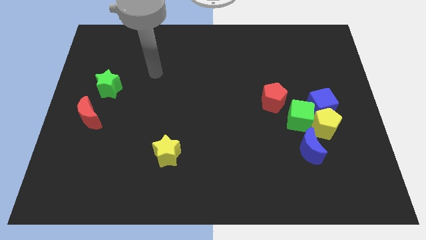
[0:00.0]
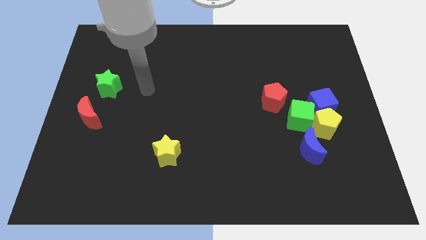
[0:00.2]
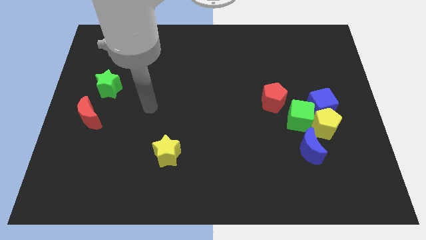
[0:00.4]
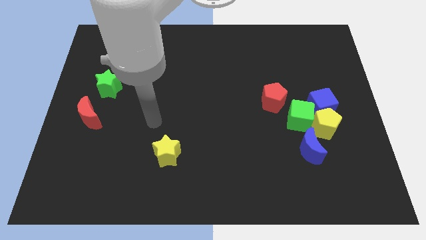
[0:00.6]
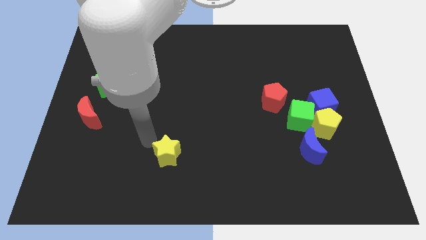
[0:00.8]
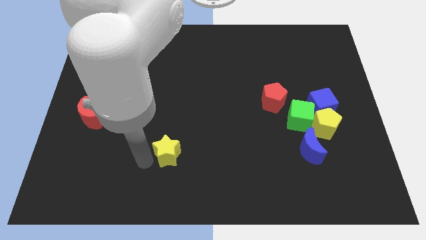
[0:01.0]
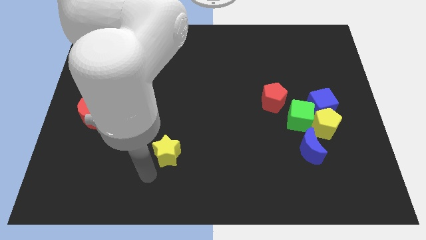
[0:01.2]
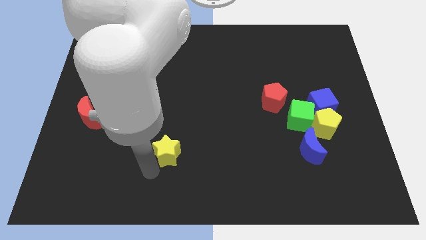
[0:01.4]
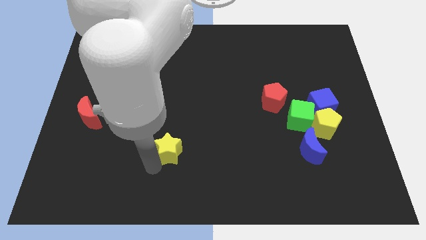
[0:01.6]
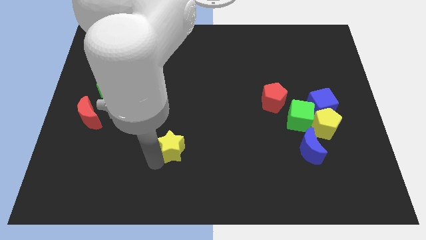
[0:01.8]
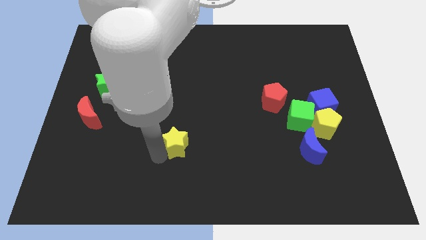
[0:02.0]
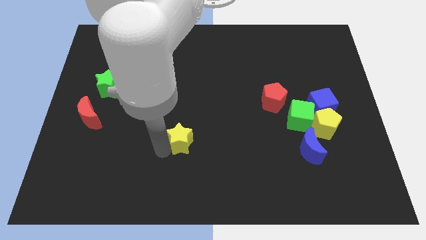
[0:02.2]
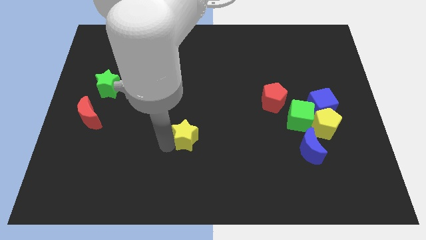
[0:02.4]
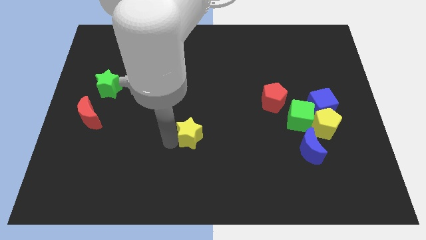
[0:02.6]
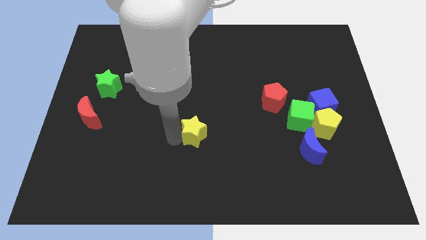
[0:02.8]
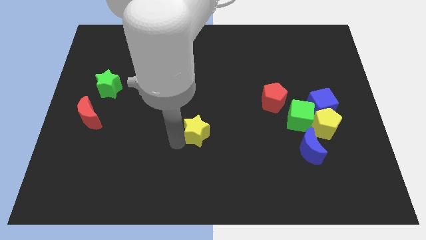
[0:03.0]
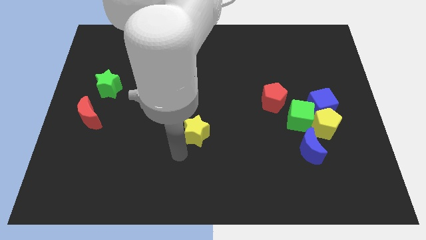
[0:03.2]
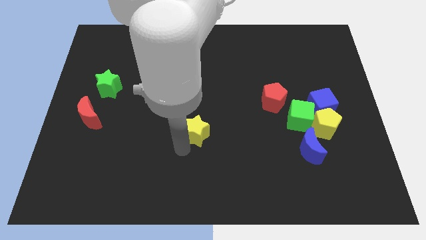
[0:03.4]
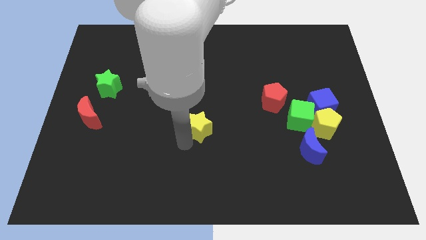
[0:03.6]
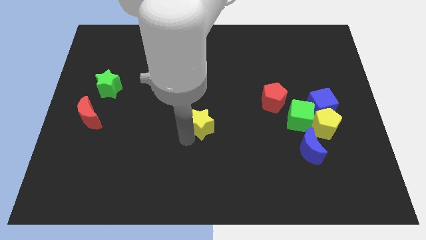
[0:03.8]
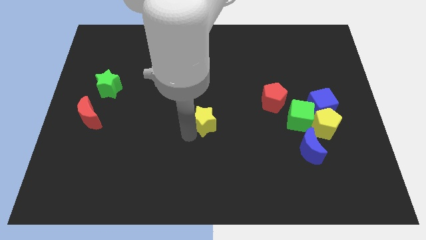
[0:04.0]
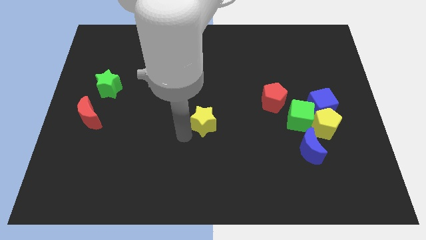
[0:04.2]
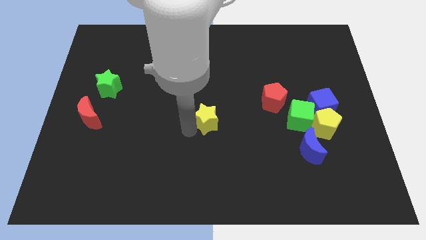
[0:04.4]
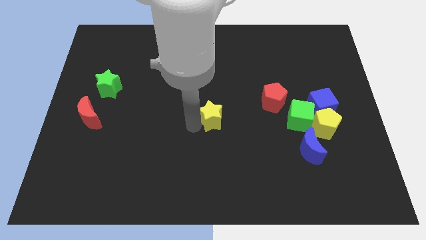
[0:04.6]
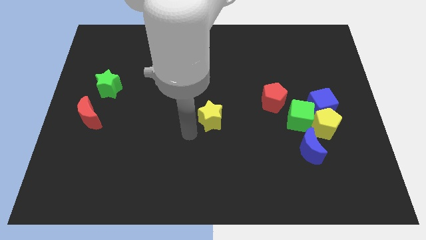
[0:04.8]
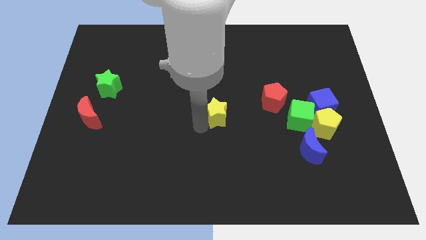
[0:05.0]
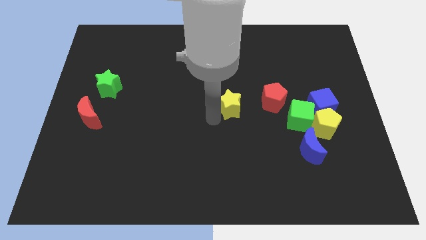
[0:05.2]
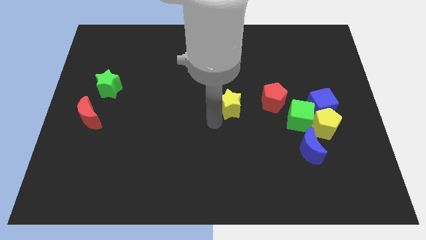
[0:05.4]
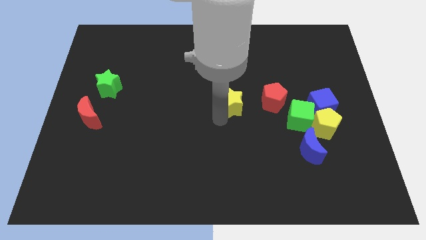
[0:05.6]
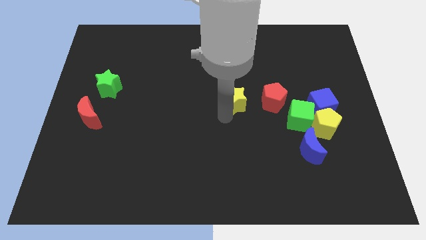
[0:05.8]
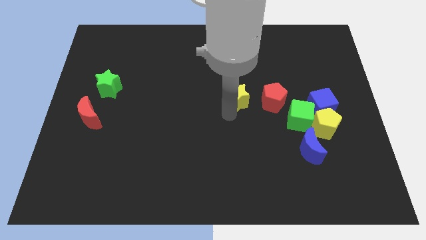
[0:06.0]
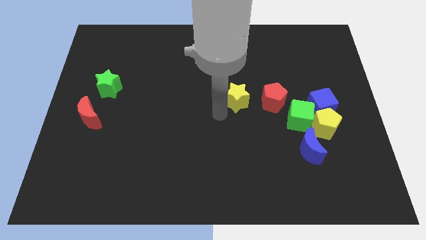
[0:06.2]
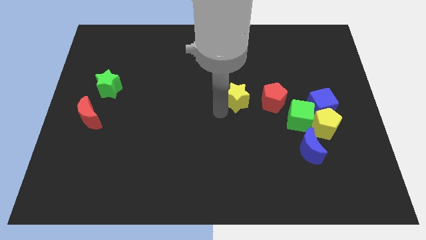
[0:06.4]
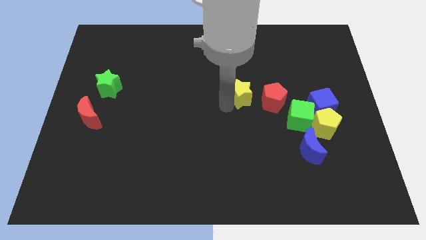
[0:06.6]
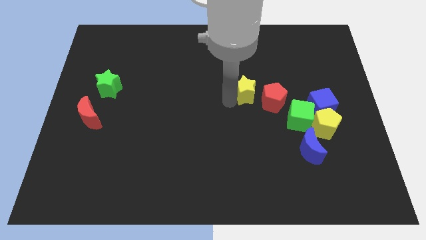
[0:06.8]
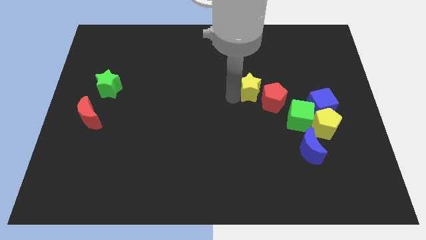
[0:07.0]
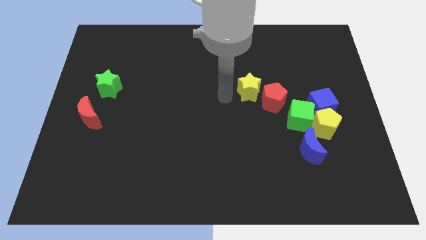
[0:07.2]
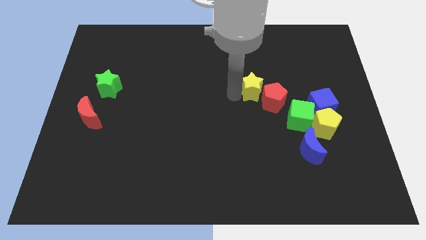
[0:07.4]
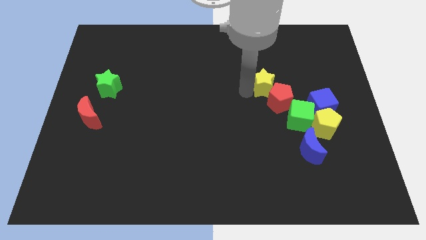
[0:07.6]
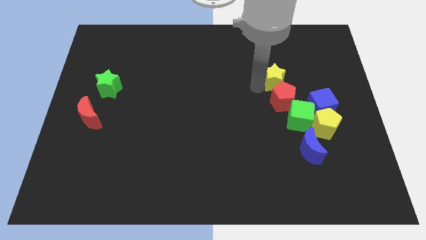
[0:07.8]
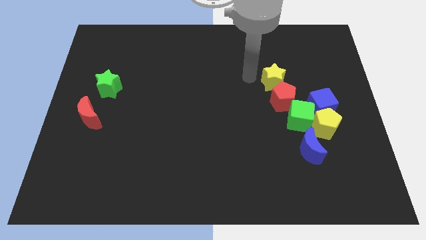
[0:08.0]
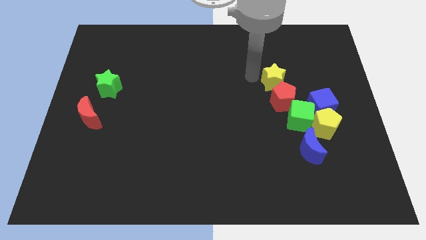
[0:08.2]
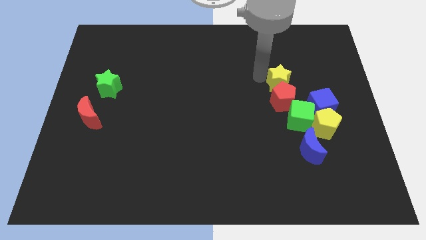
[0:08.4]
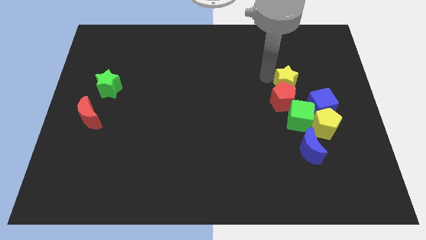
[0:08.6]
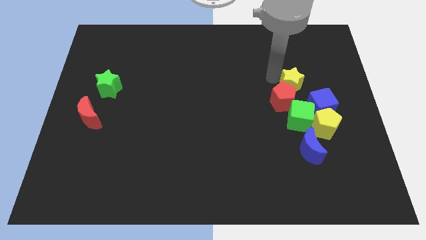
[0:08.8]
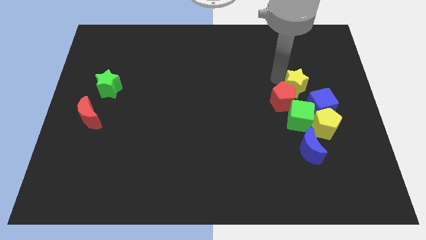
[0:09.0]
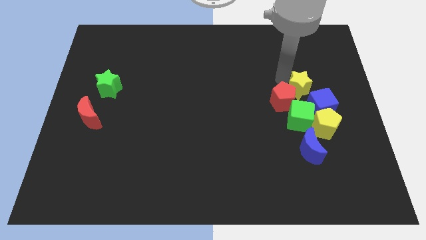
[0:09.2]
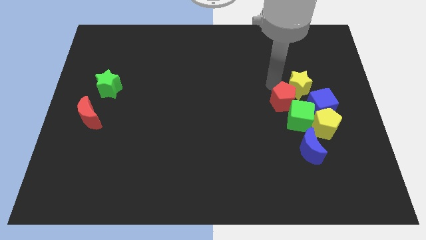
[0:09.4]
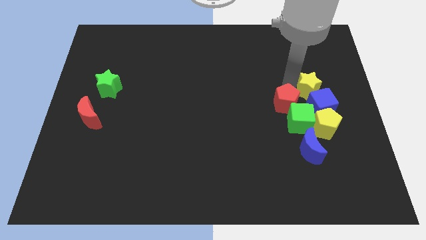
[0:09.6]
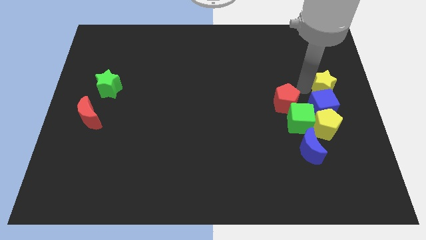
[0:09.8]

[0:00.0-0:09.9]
put the yellow star to the right side of the board
